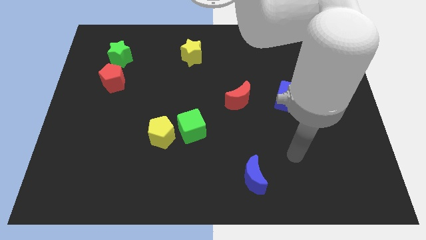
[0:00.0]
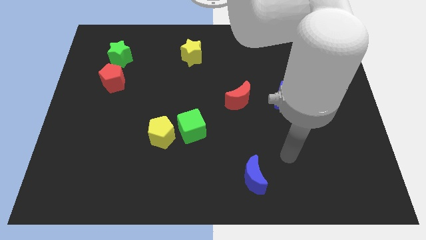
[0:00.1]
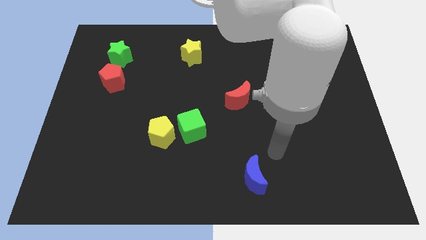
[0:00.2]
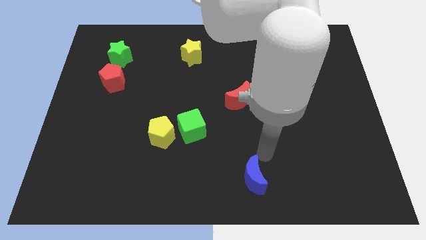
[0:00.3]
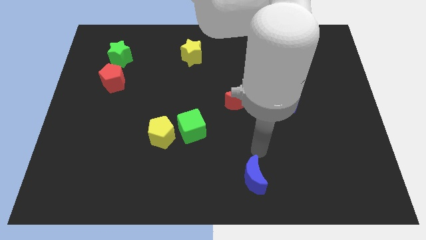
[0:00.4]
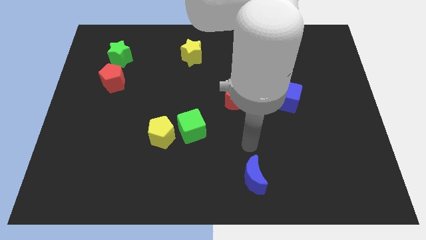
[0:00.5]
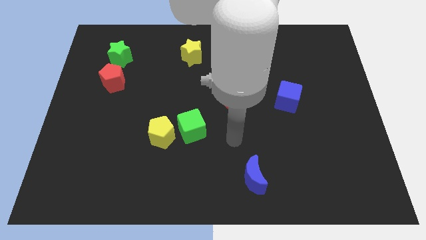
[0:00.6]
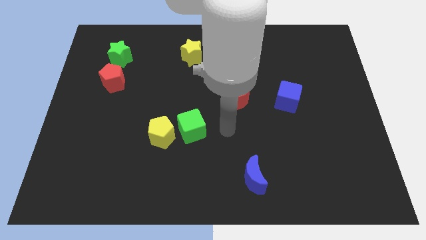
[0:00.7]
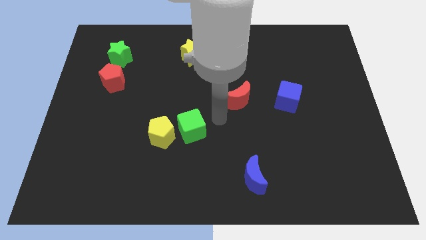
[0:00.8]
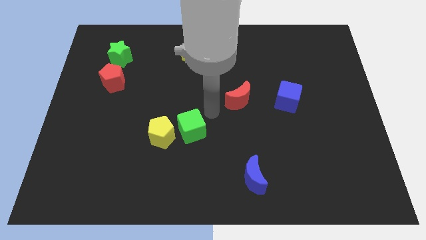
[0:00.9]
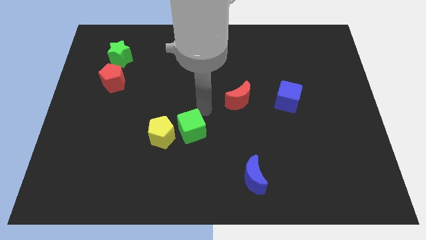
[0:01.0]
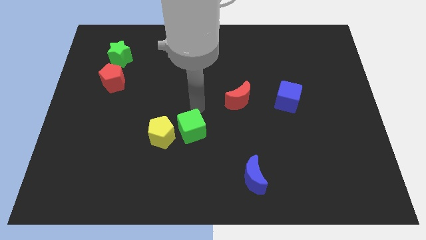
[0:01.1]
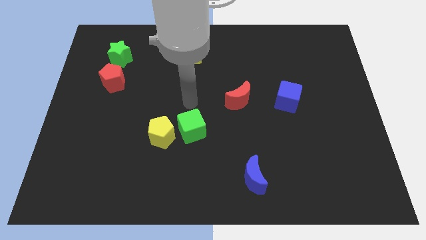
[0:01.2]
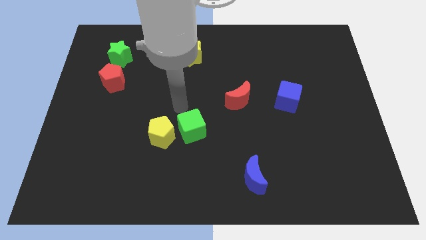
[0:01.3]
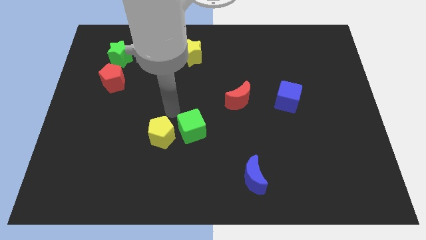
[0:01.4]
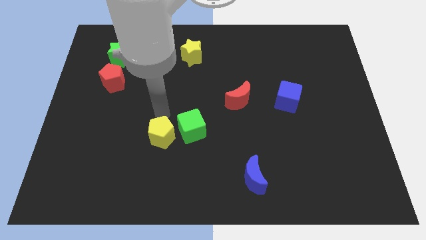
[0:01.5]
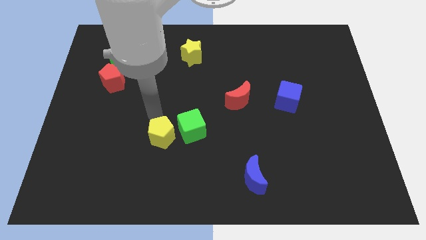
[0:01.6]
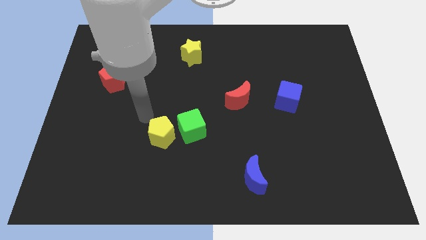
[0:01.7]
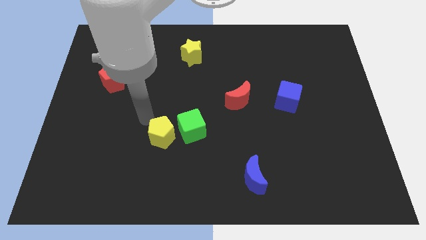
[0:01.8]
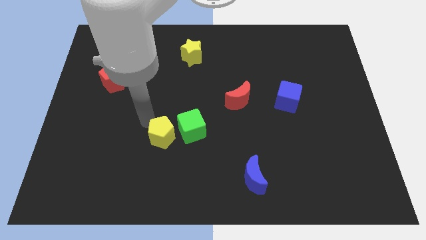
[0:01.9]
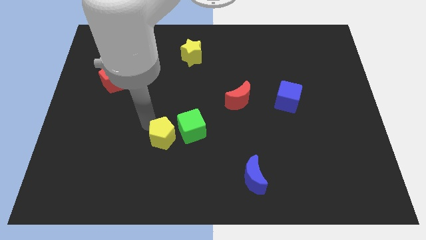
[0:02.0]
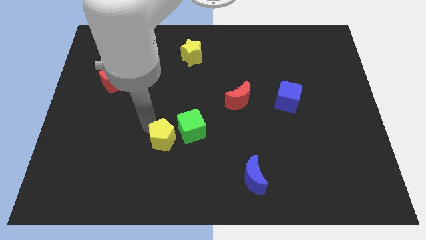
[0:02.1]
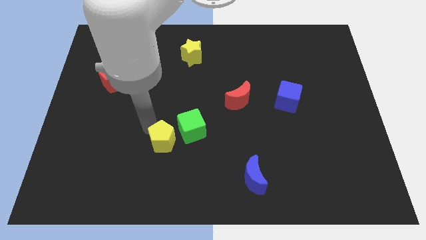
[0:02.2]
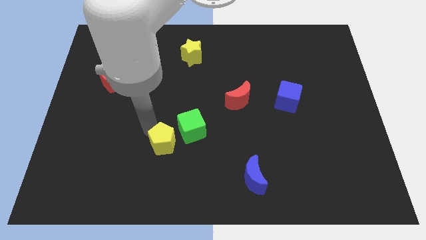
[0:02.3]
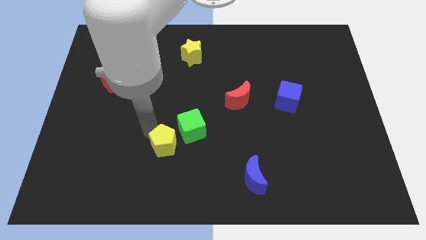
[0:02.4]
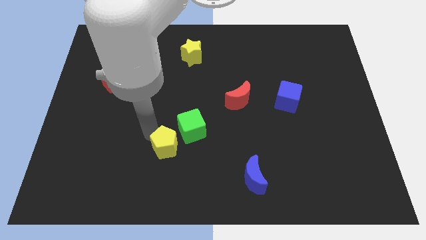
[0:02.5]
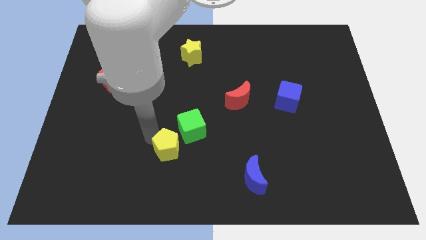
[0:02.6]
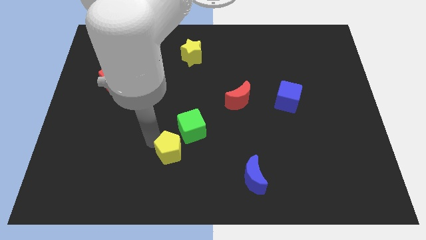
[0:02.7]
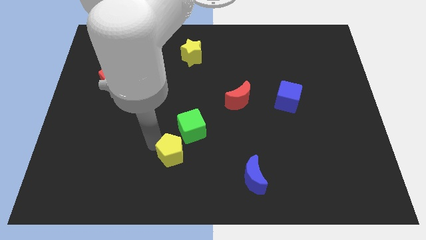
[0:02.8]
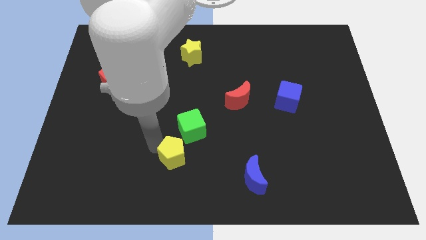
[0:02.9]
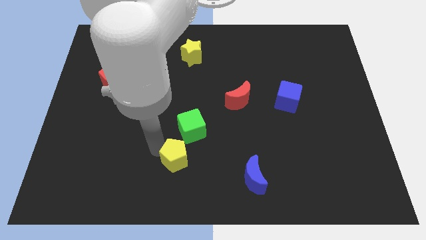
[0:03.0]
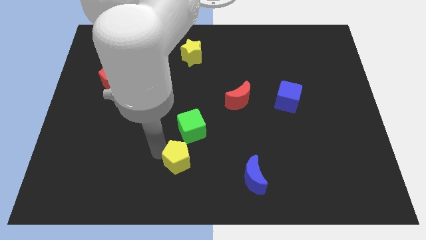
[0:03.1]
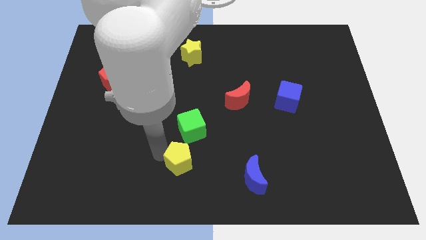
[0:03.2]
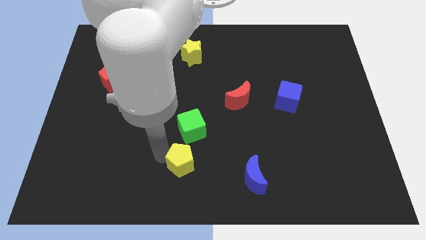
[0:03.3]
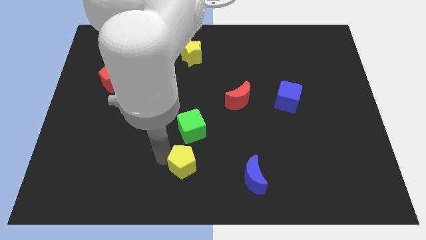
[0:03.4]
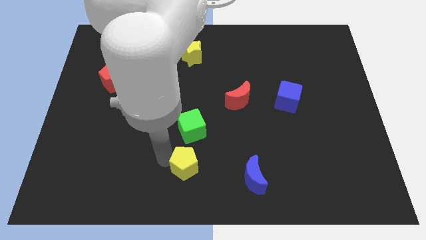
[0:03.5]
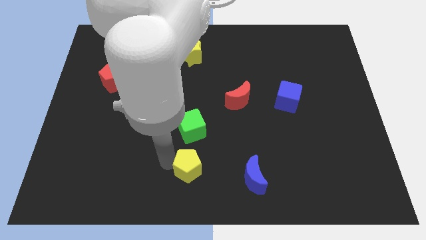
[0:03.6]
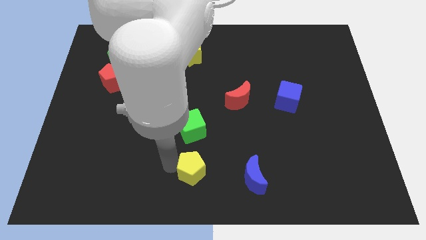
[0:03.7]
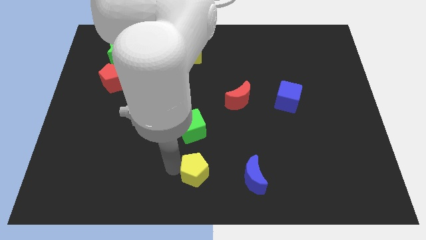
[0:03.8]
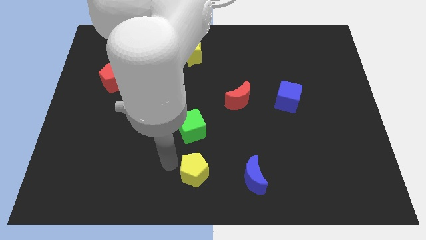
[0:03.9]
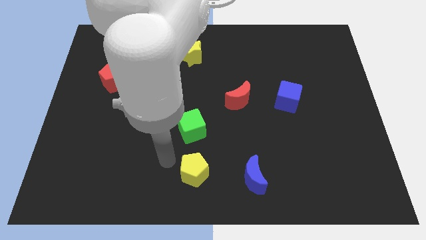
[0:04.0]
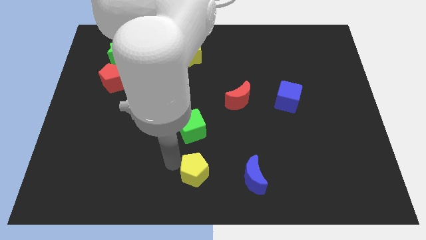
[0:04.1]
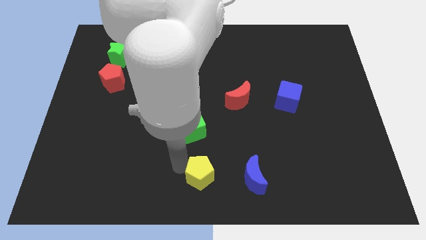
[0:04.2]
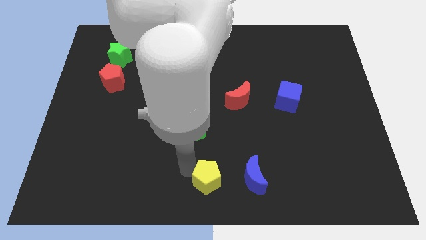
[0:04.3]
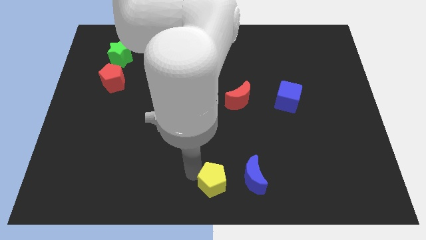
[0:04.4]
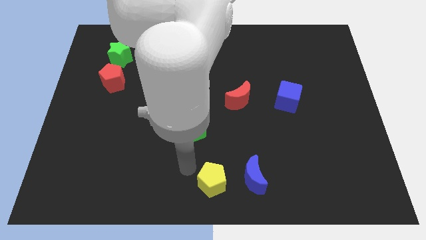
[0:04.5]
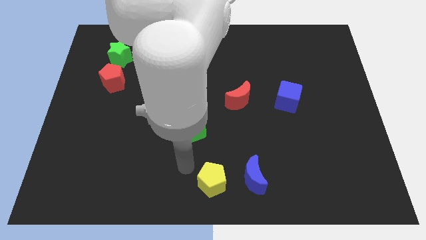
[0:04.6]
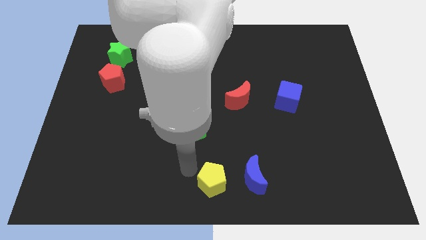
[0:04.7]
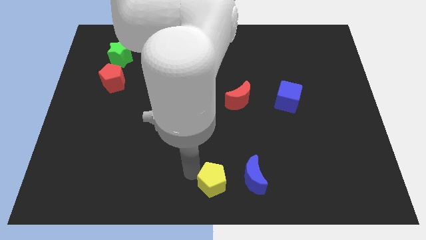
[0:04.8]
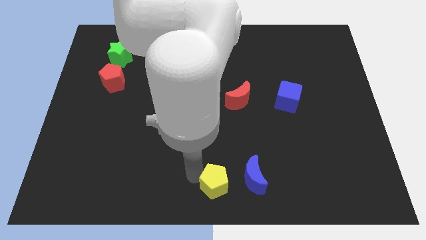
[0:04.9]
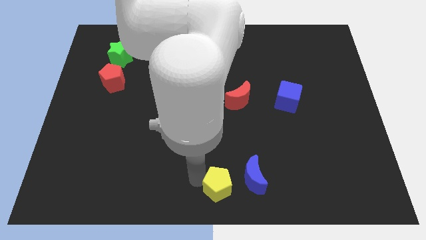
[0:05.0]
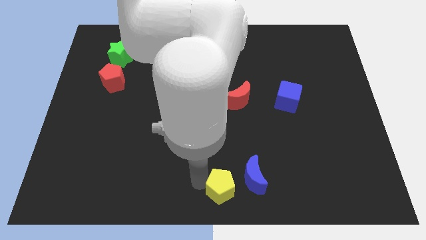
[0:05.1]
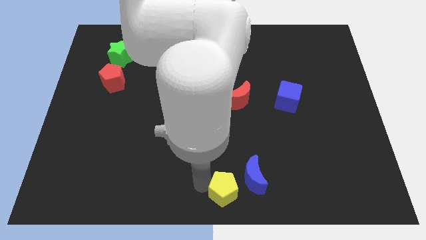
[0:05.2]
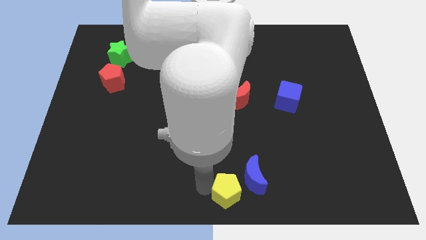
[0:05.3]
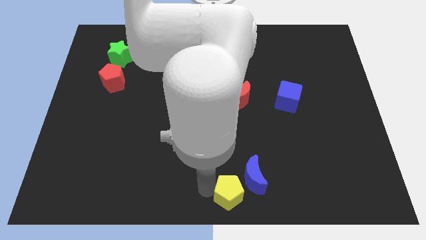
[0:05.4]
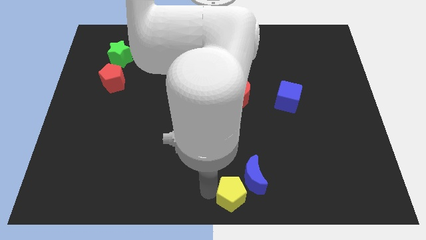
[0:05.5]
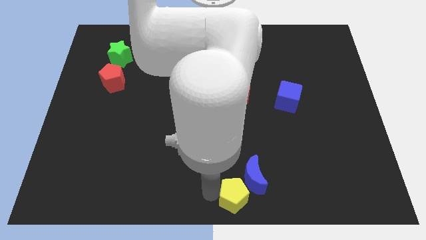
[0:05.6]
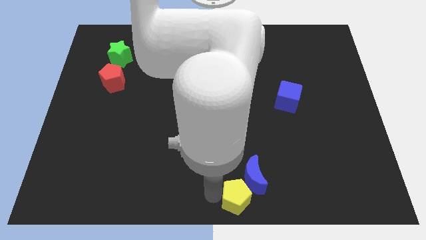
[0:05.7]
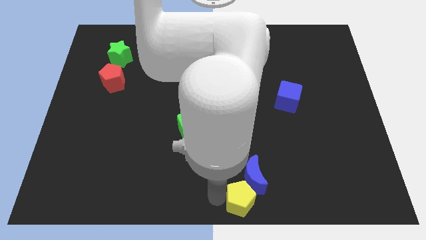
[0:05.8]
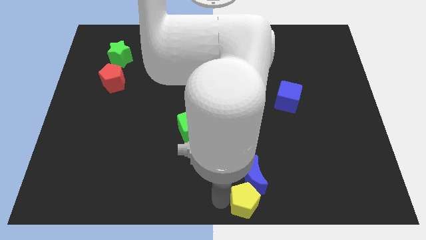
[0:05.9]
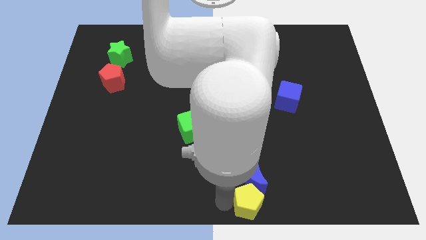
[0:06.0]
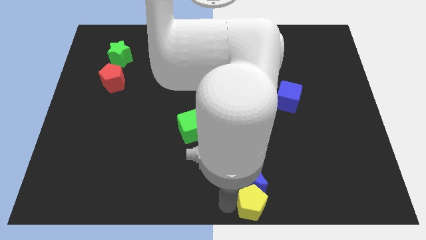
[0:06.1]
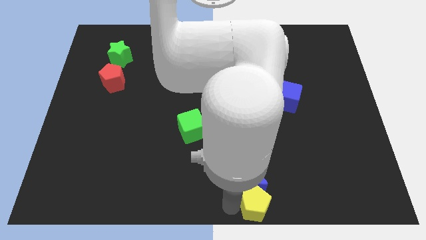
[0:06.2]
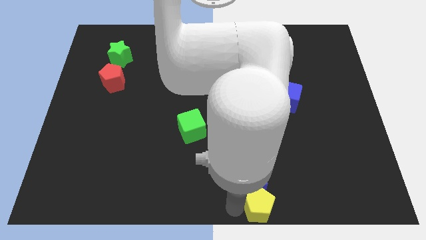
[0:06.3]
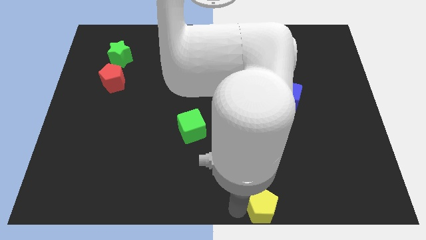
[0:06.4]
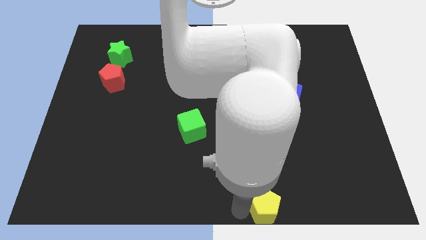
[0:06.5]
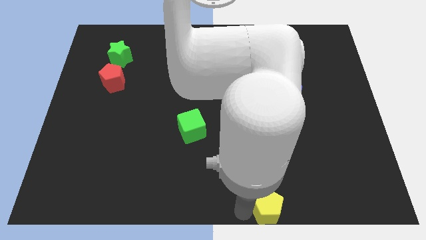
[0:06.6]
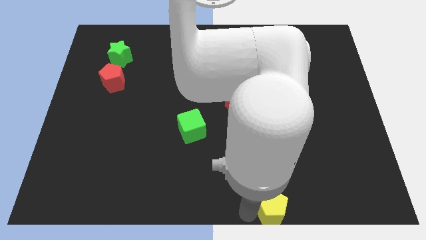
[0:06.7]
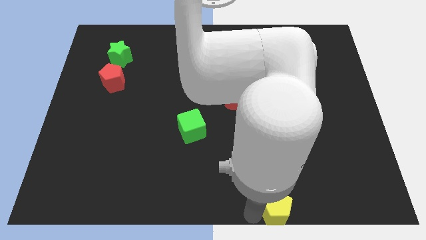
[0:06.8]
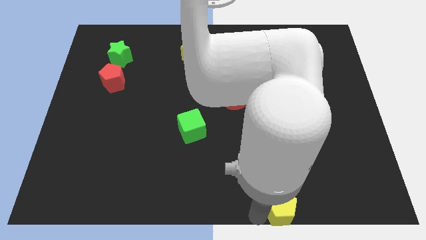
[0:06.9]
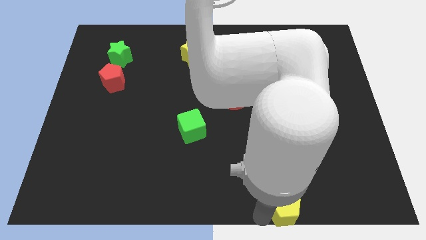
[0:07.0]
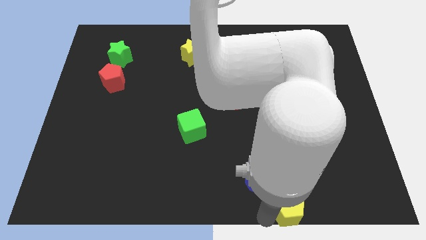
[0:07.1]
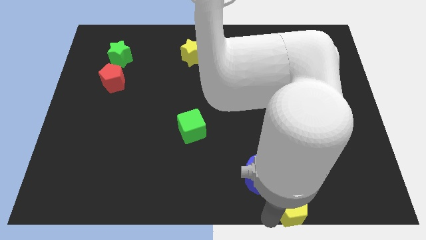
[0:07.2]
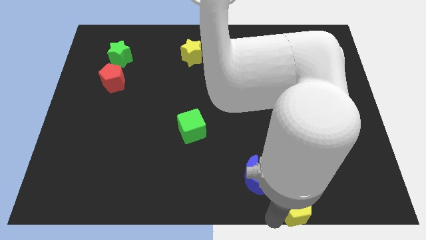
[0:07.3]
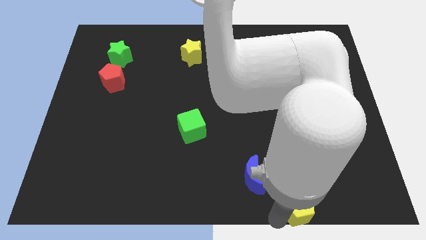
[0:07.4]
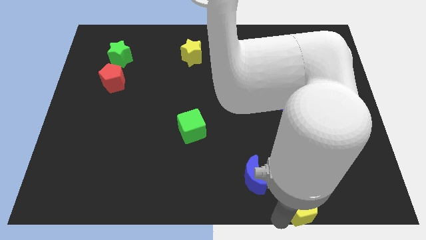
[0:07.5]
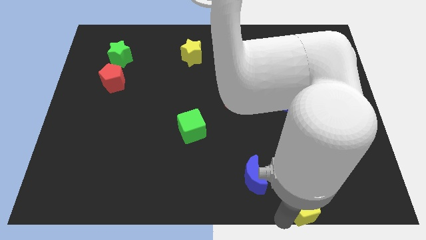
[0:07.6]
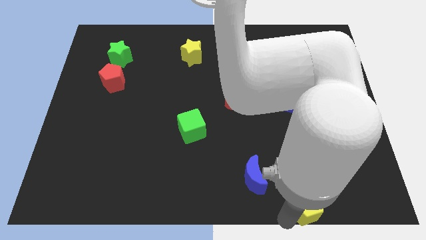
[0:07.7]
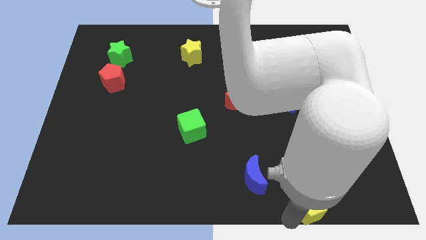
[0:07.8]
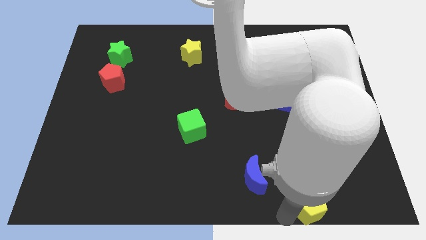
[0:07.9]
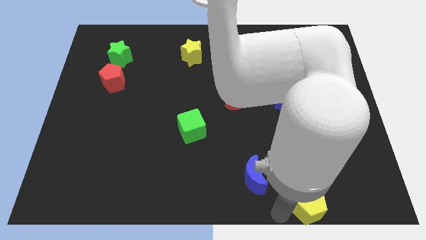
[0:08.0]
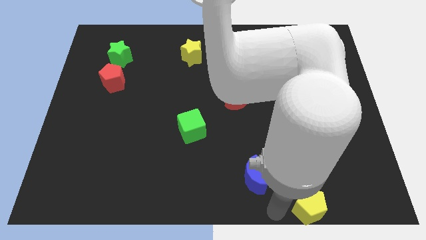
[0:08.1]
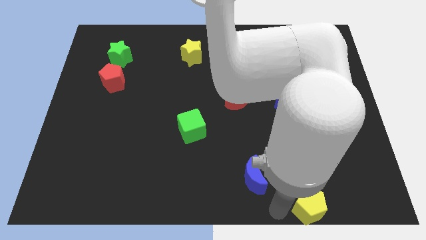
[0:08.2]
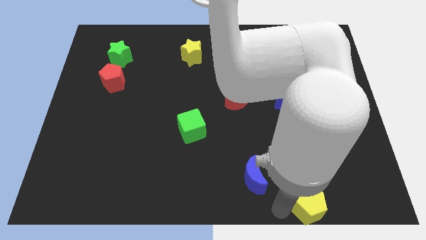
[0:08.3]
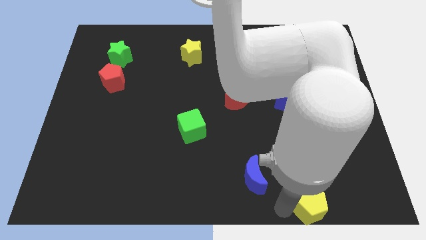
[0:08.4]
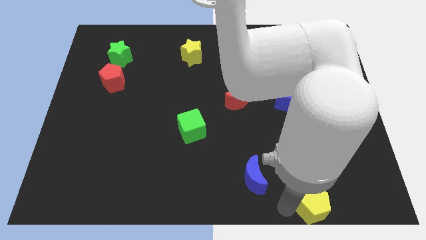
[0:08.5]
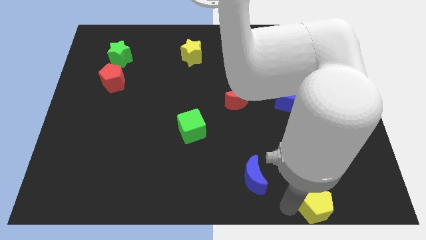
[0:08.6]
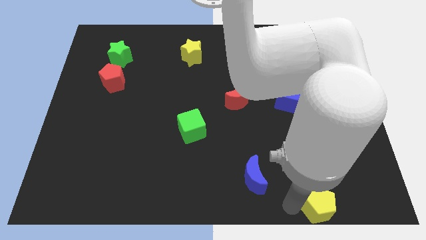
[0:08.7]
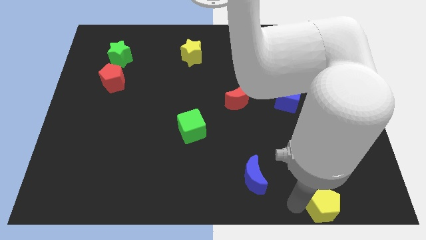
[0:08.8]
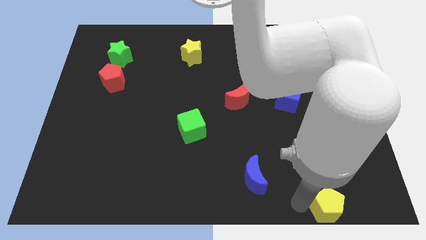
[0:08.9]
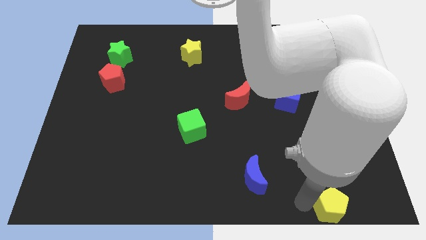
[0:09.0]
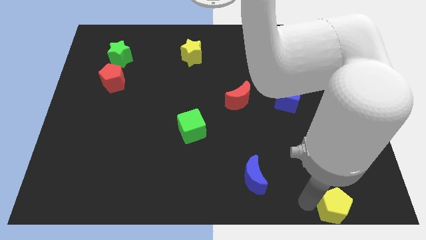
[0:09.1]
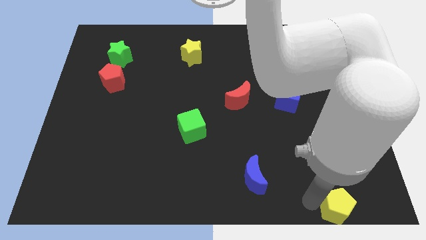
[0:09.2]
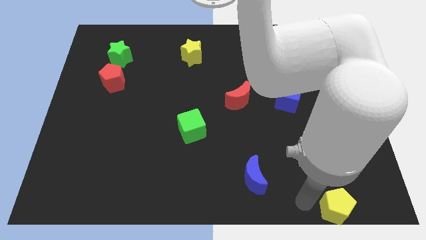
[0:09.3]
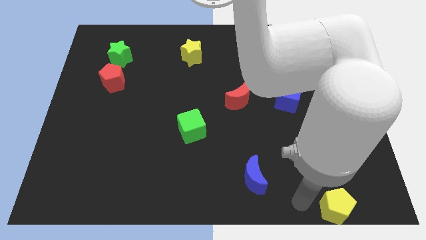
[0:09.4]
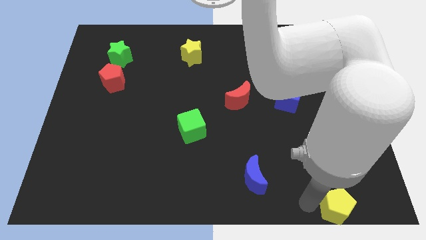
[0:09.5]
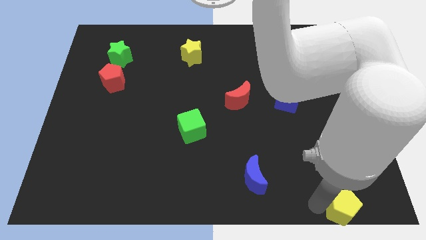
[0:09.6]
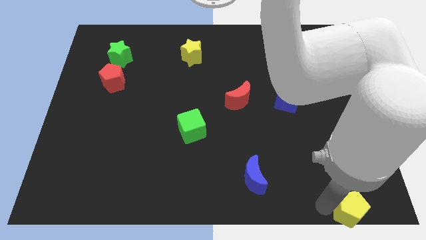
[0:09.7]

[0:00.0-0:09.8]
put the yellow pentagon to the bottom right corner
